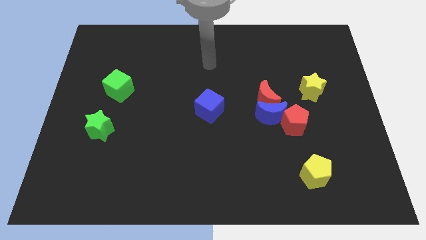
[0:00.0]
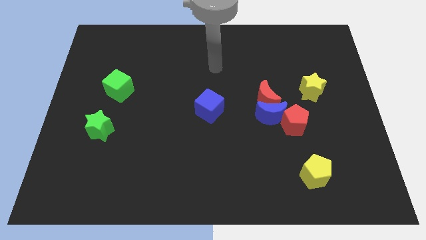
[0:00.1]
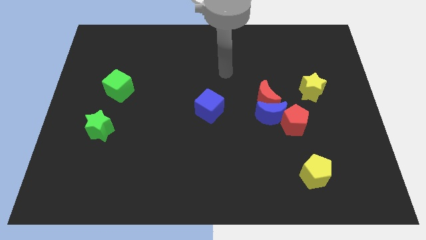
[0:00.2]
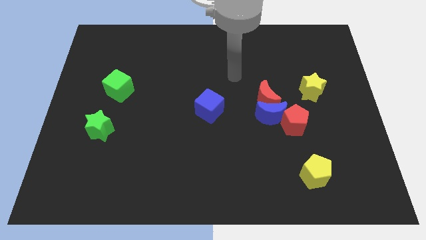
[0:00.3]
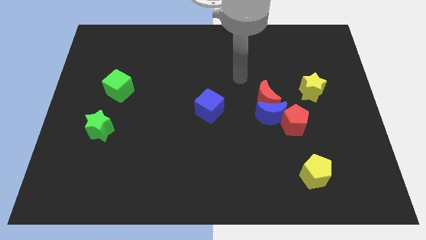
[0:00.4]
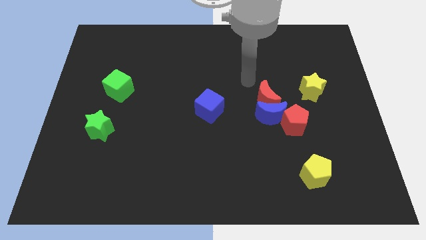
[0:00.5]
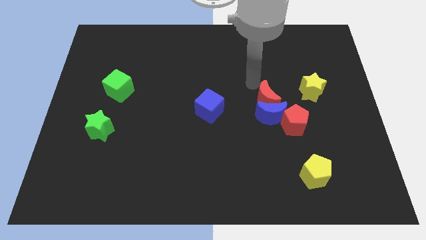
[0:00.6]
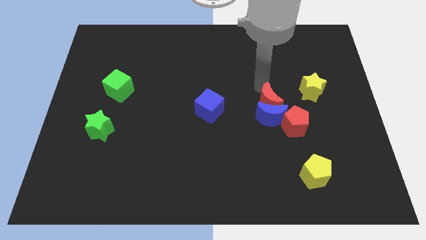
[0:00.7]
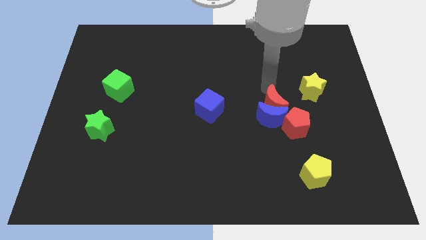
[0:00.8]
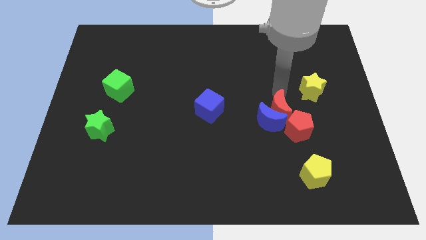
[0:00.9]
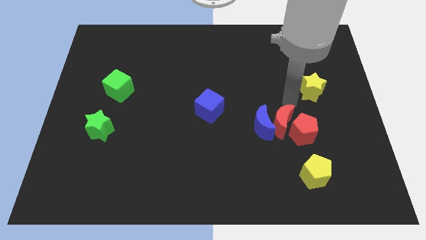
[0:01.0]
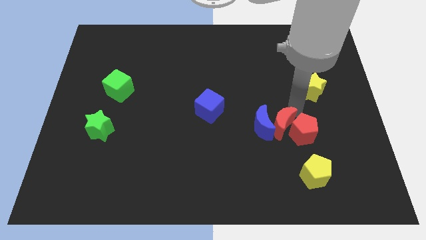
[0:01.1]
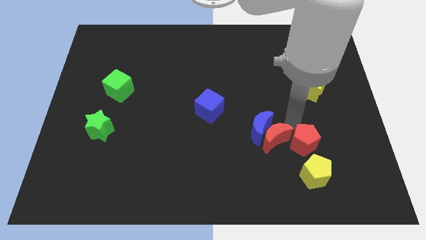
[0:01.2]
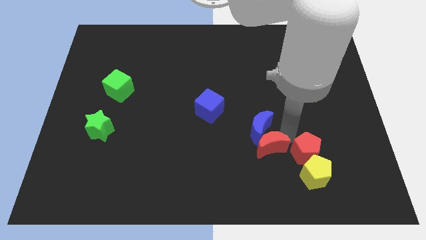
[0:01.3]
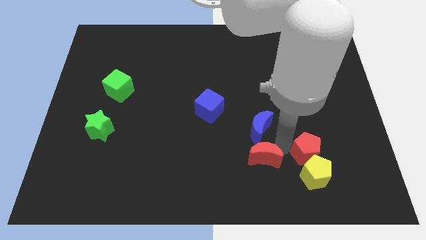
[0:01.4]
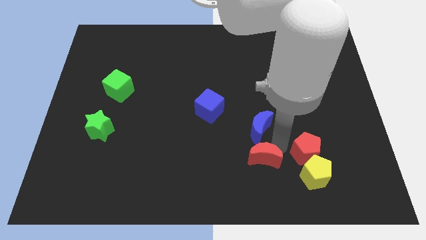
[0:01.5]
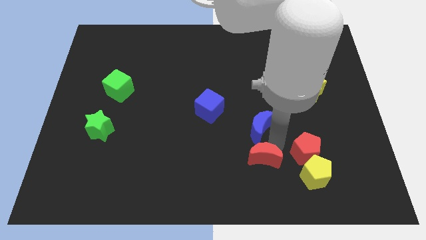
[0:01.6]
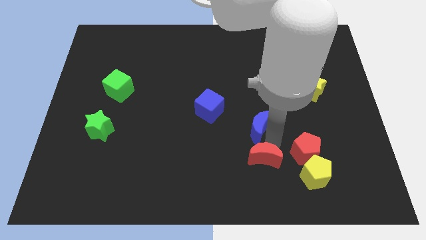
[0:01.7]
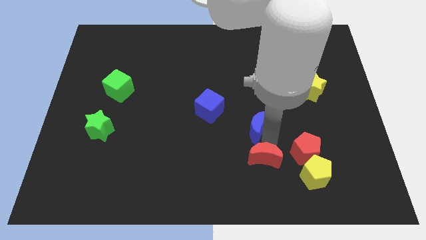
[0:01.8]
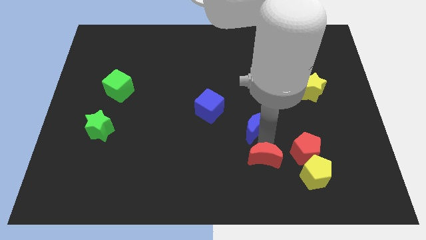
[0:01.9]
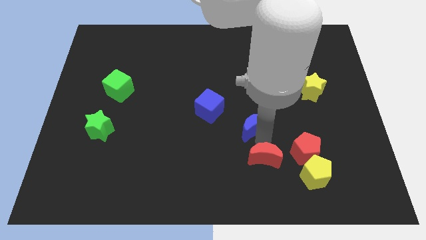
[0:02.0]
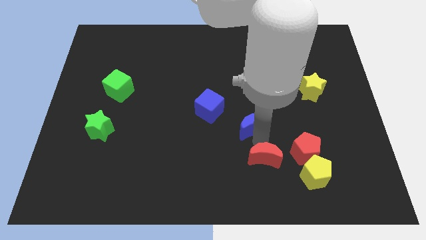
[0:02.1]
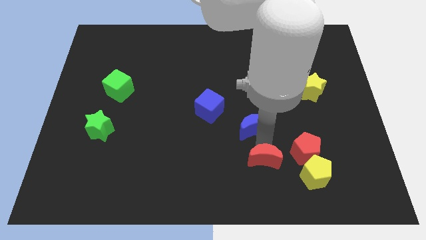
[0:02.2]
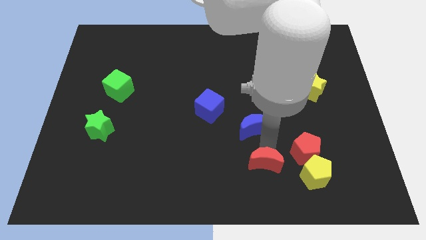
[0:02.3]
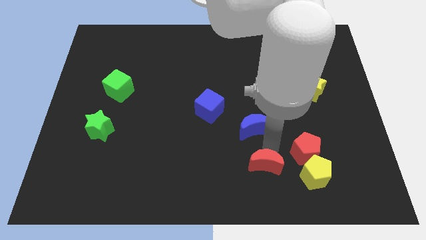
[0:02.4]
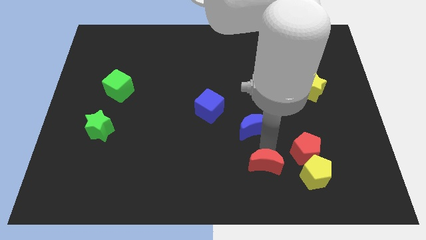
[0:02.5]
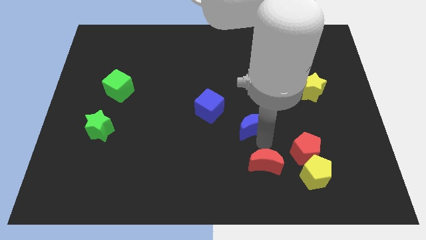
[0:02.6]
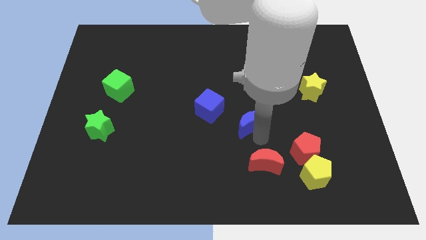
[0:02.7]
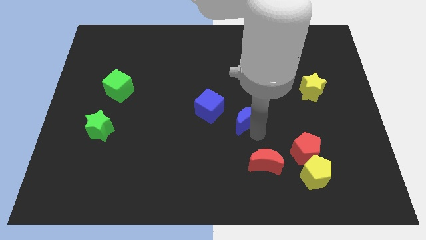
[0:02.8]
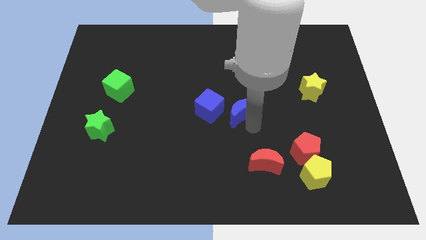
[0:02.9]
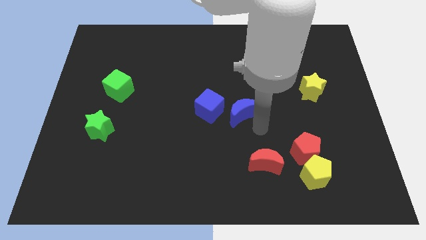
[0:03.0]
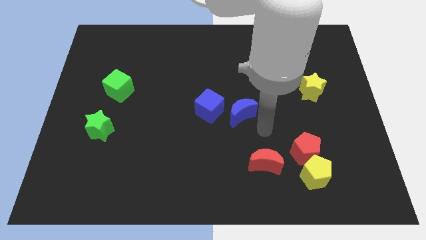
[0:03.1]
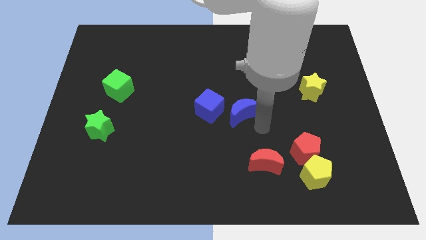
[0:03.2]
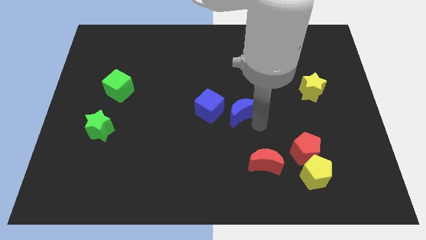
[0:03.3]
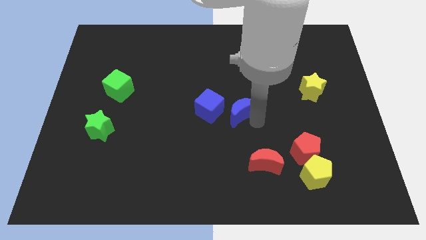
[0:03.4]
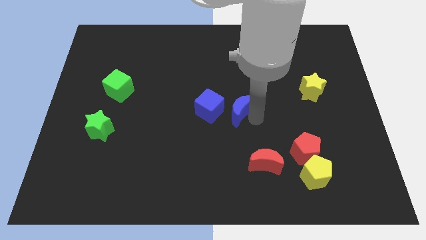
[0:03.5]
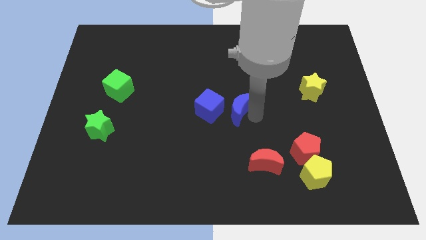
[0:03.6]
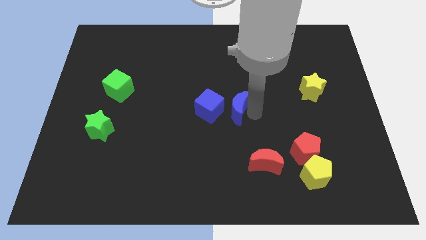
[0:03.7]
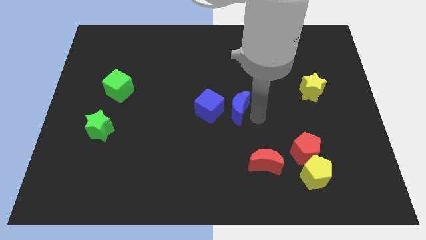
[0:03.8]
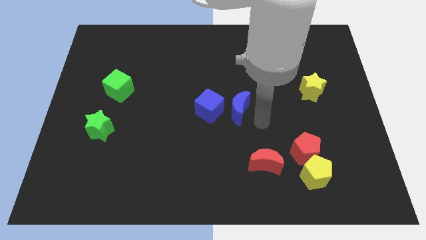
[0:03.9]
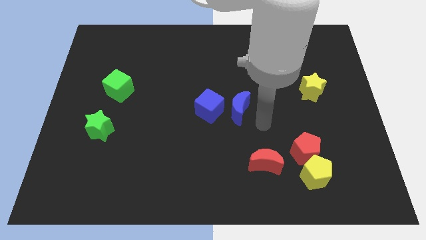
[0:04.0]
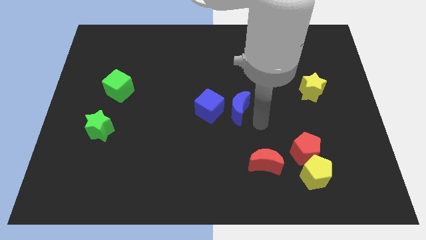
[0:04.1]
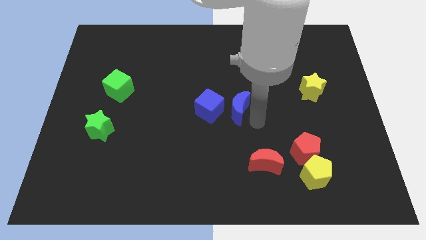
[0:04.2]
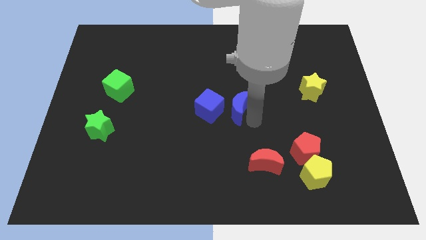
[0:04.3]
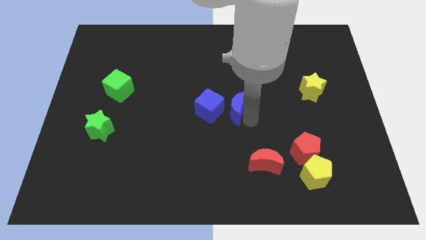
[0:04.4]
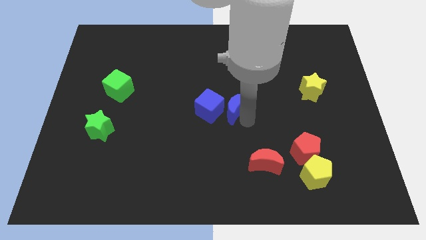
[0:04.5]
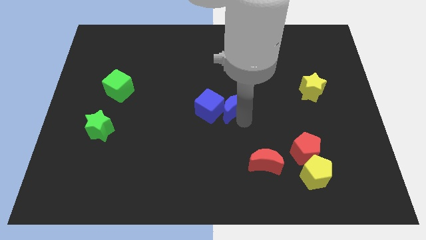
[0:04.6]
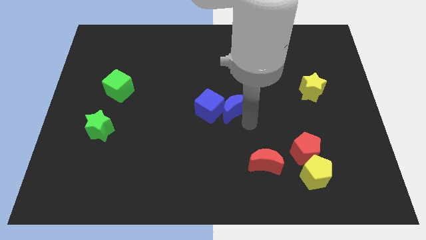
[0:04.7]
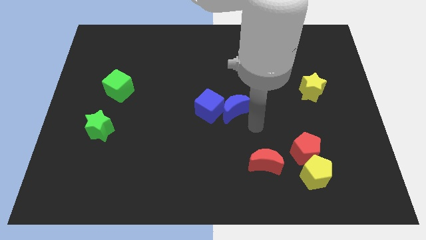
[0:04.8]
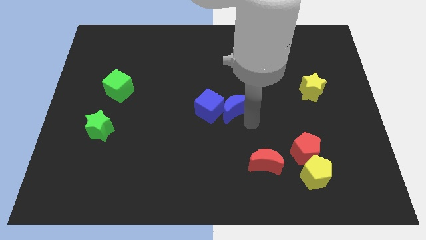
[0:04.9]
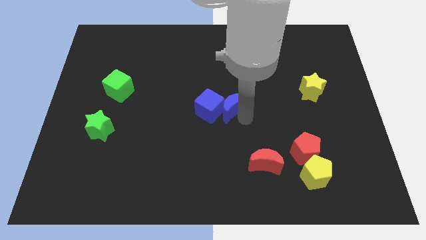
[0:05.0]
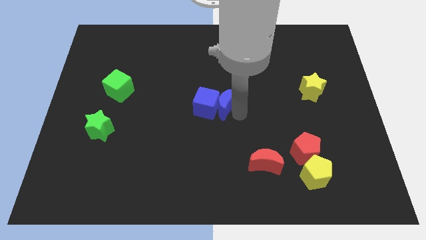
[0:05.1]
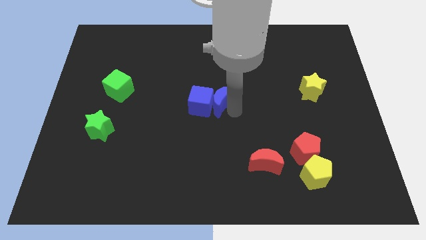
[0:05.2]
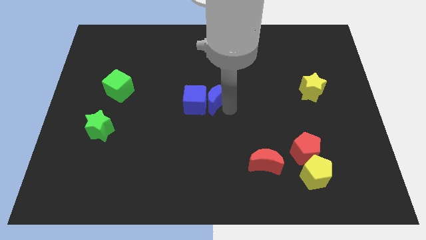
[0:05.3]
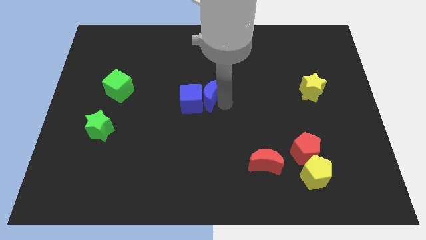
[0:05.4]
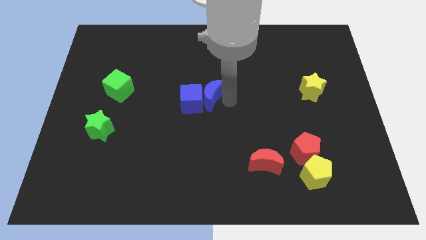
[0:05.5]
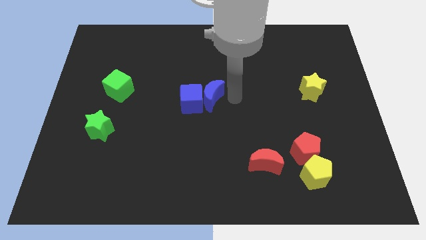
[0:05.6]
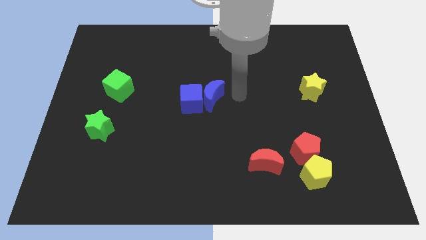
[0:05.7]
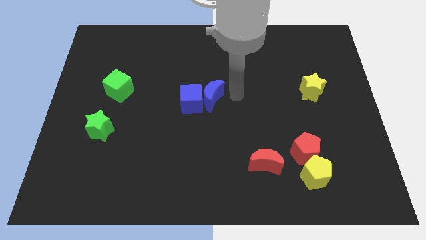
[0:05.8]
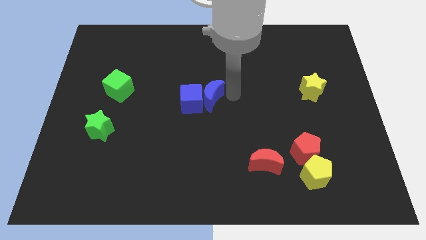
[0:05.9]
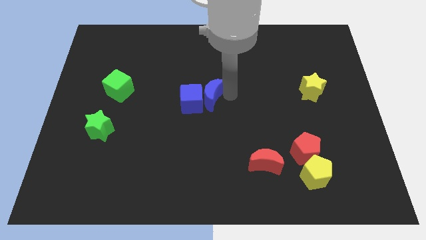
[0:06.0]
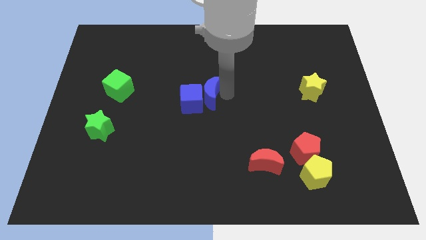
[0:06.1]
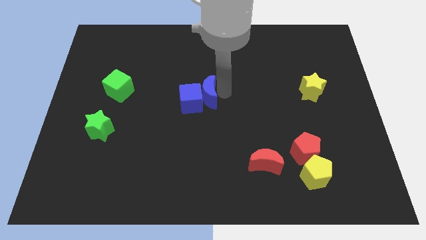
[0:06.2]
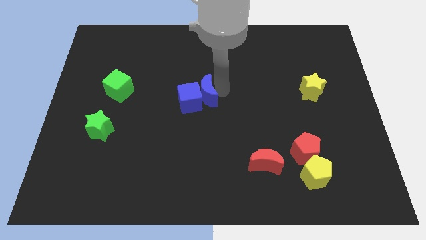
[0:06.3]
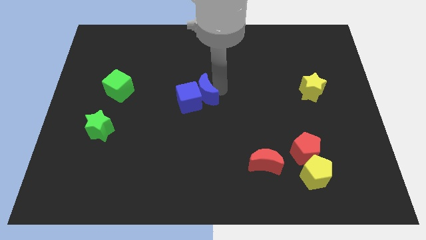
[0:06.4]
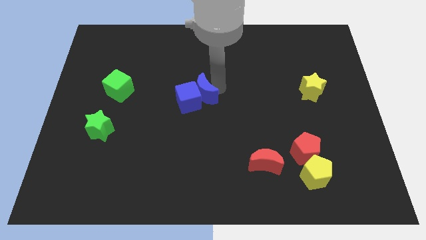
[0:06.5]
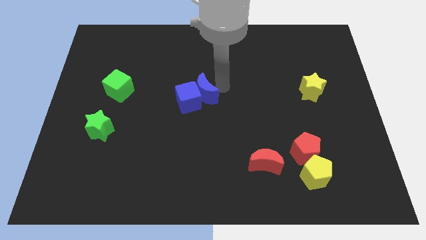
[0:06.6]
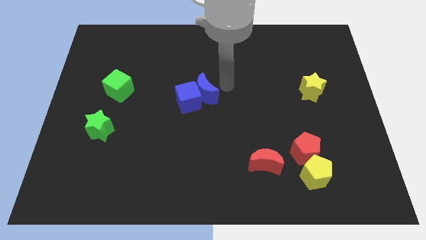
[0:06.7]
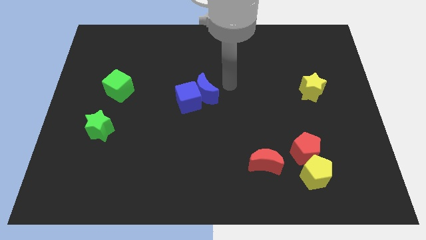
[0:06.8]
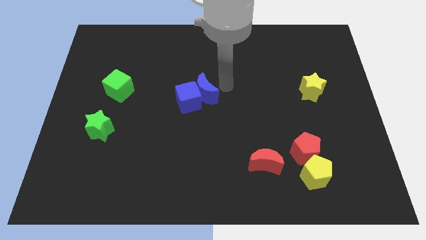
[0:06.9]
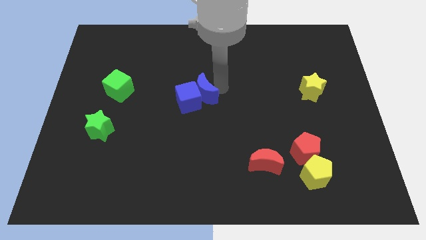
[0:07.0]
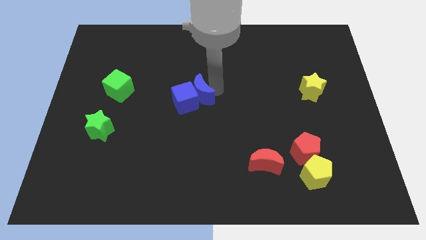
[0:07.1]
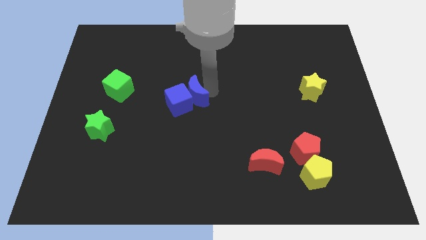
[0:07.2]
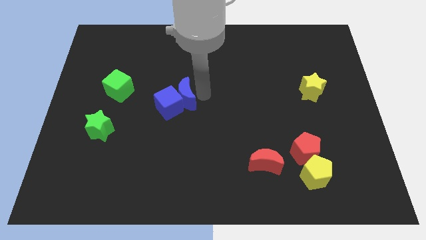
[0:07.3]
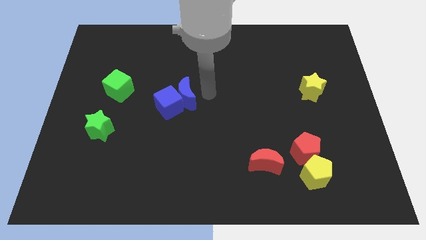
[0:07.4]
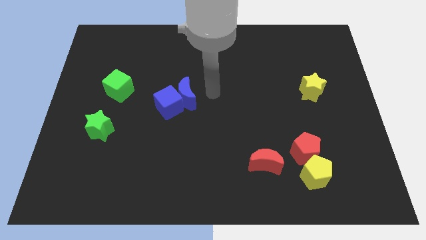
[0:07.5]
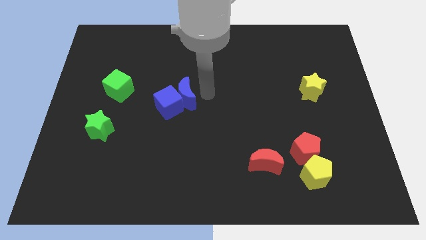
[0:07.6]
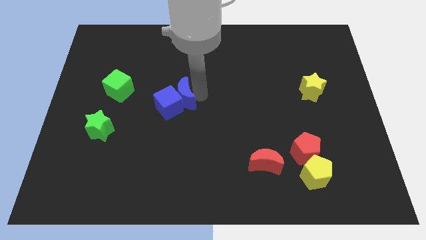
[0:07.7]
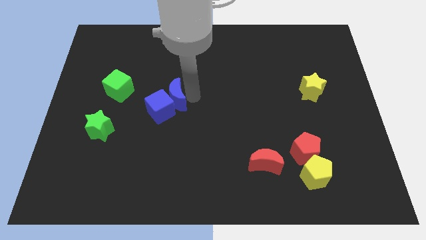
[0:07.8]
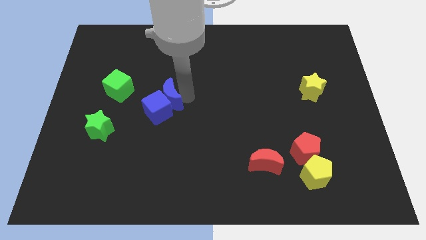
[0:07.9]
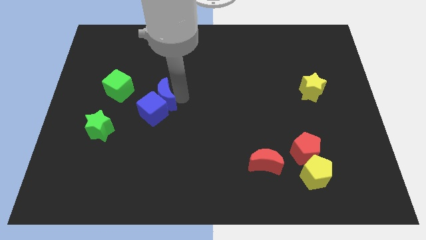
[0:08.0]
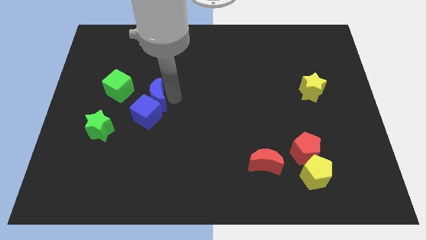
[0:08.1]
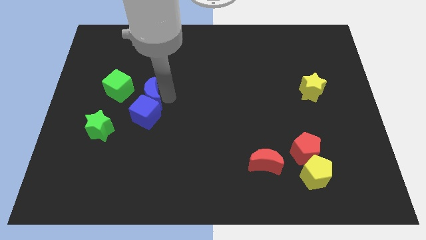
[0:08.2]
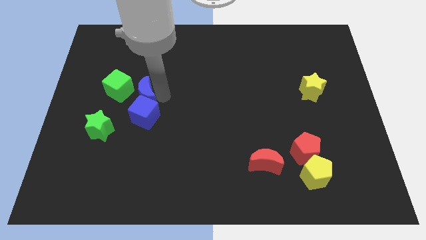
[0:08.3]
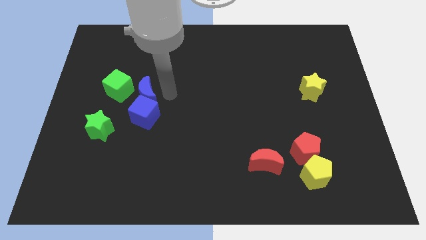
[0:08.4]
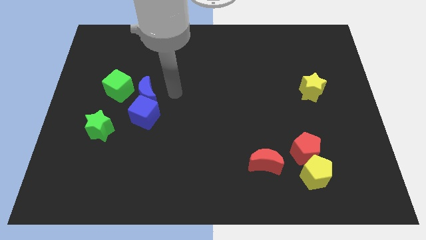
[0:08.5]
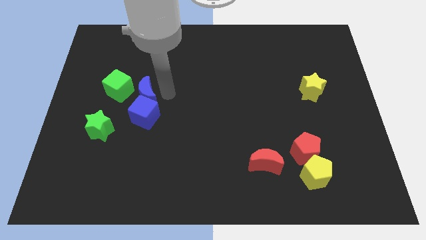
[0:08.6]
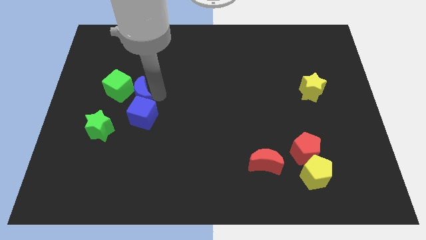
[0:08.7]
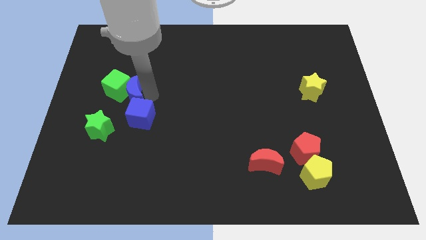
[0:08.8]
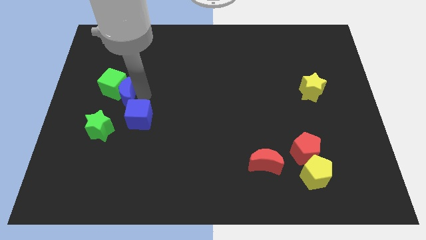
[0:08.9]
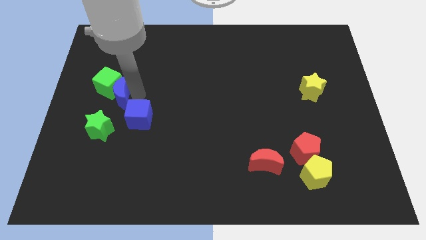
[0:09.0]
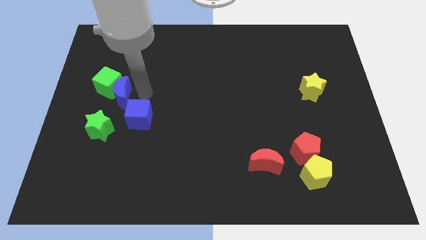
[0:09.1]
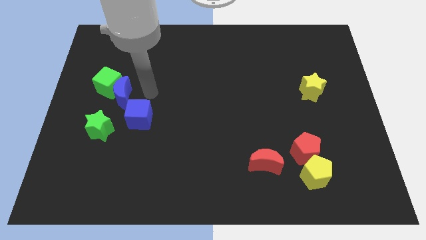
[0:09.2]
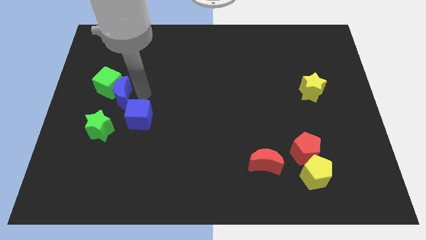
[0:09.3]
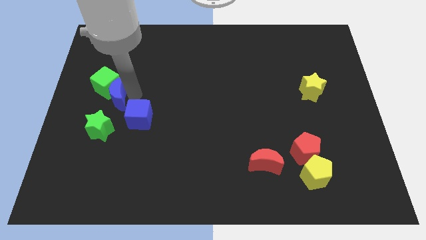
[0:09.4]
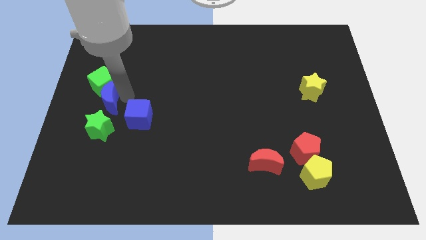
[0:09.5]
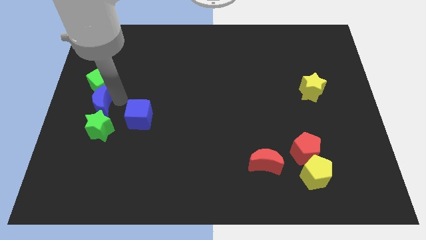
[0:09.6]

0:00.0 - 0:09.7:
move the blue moon to the left side
